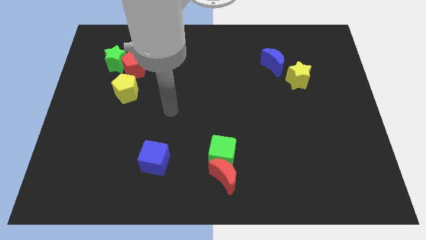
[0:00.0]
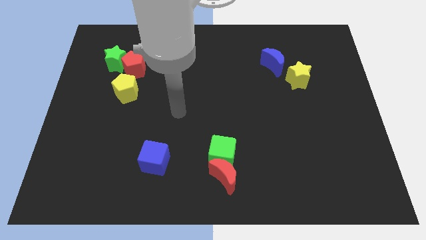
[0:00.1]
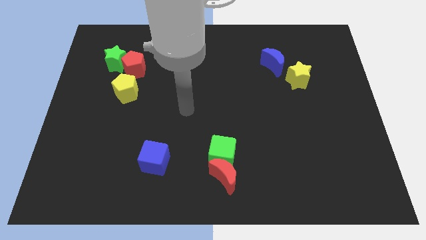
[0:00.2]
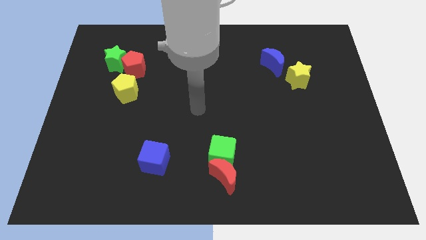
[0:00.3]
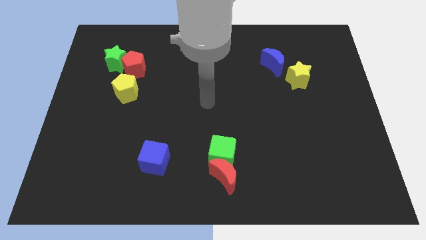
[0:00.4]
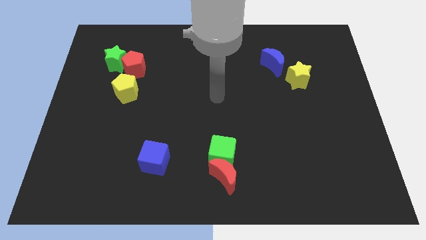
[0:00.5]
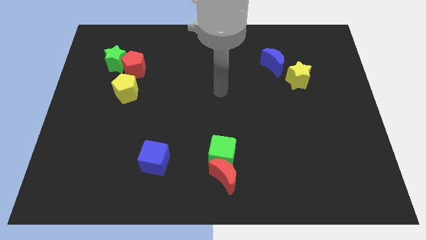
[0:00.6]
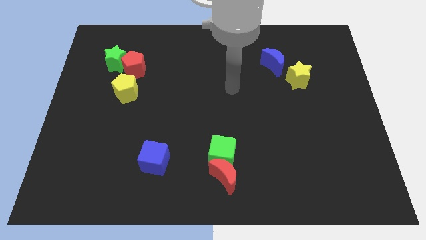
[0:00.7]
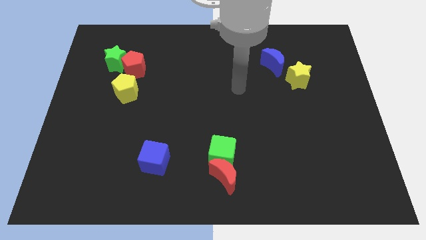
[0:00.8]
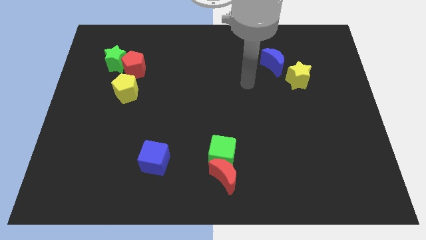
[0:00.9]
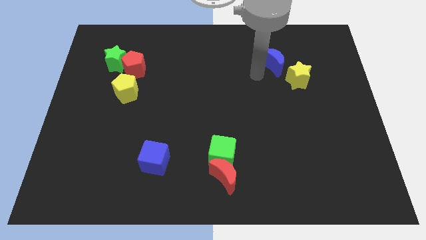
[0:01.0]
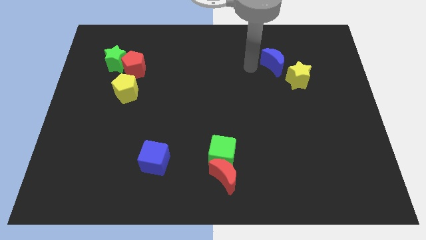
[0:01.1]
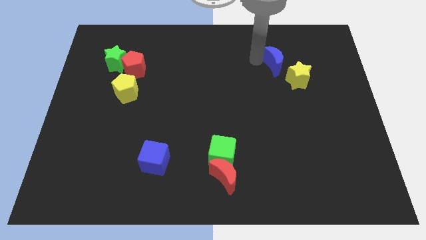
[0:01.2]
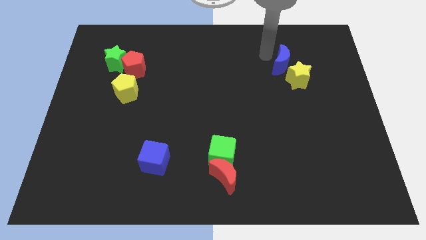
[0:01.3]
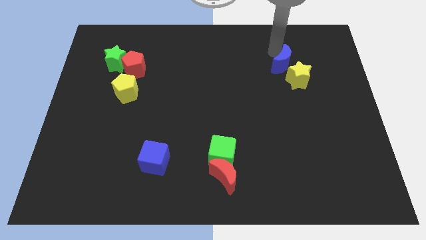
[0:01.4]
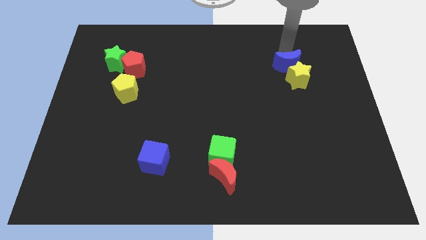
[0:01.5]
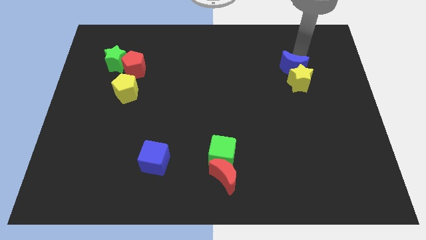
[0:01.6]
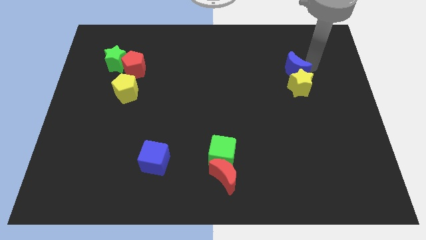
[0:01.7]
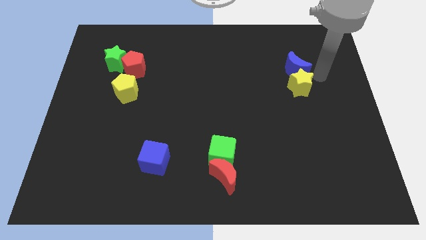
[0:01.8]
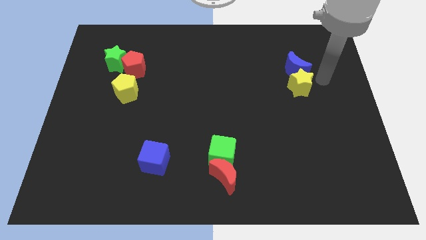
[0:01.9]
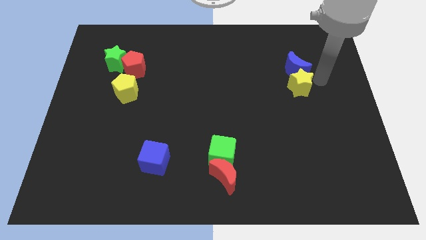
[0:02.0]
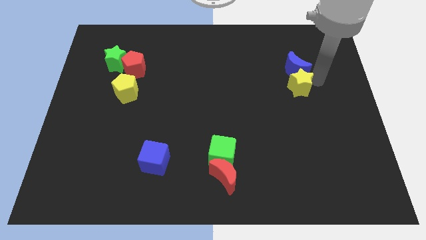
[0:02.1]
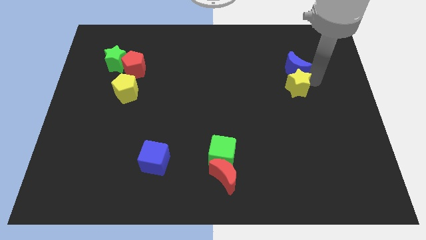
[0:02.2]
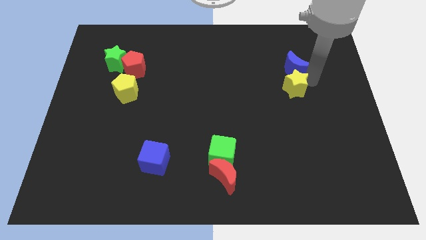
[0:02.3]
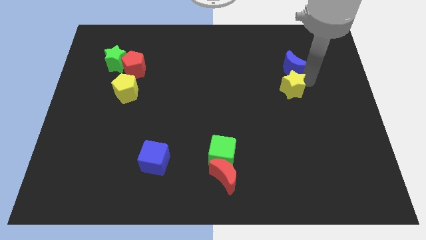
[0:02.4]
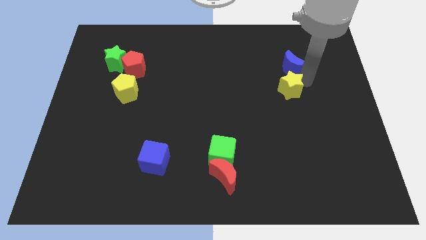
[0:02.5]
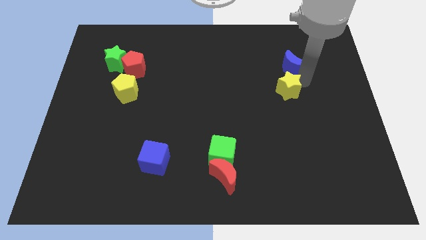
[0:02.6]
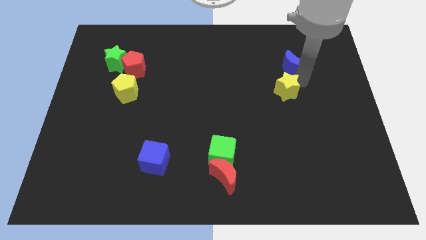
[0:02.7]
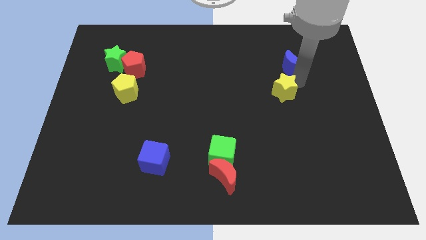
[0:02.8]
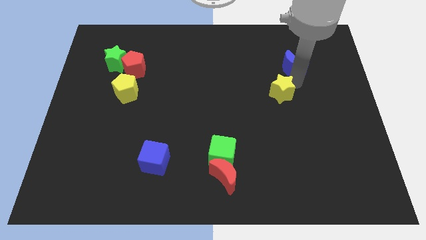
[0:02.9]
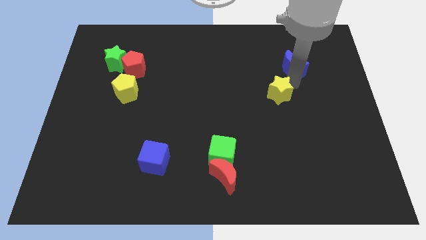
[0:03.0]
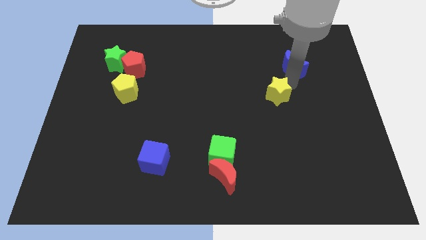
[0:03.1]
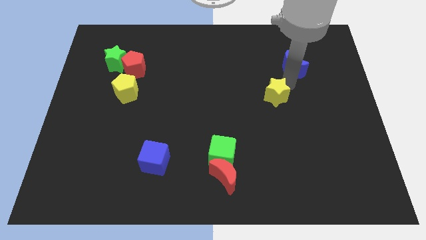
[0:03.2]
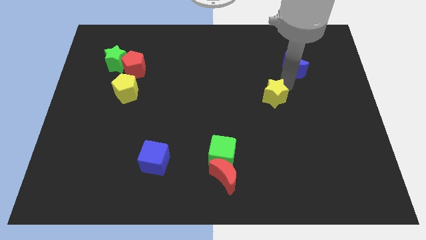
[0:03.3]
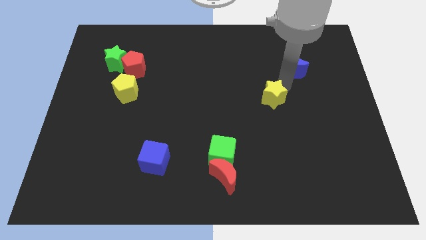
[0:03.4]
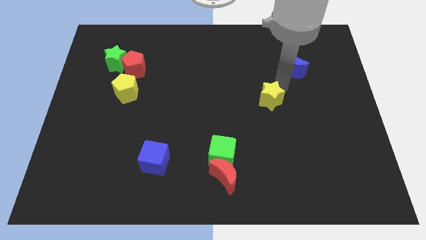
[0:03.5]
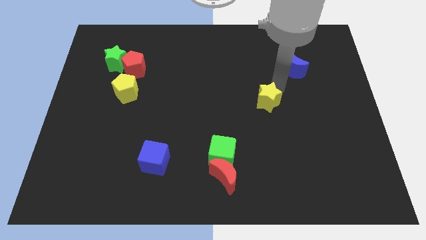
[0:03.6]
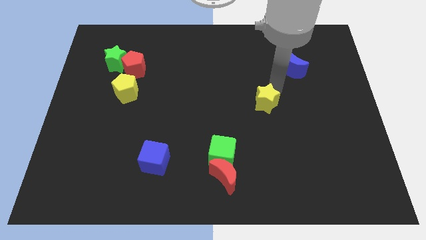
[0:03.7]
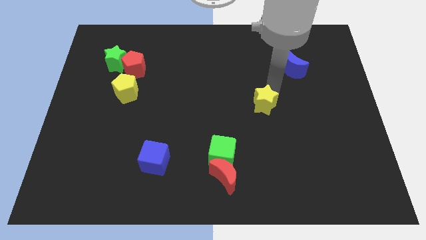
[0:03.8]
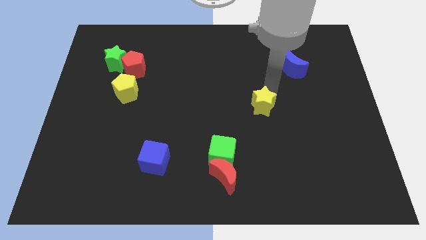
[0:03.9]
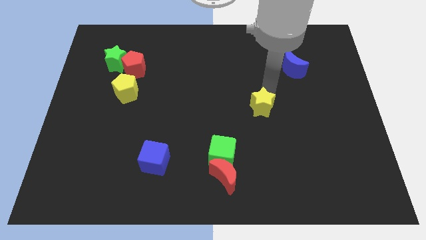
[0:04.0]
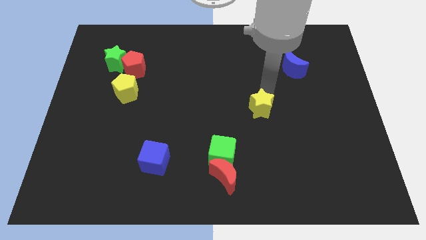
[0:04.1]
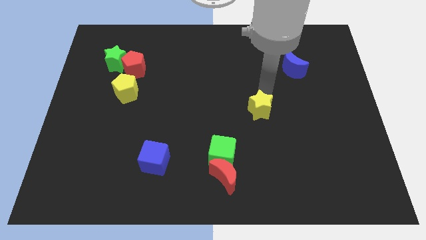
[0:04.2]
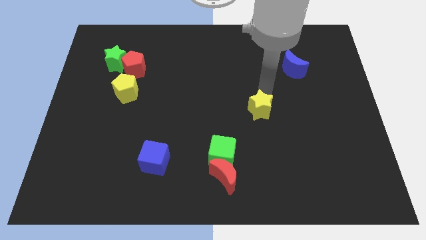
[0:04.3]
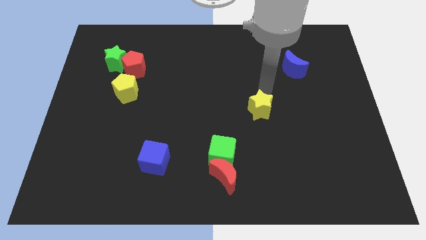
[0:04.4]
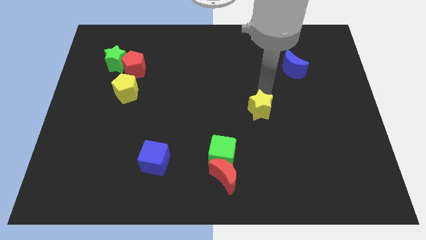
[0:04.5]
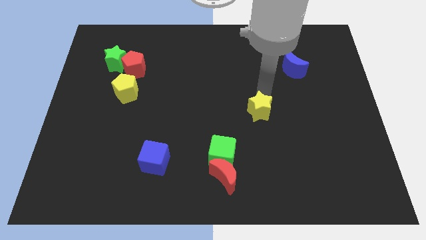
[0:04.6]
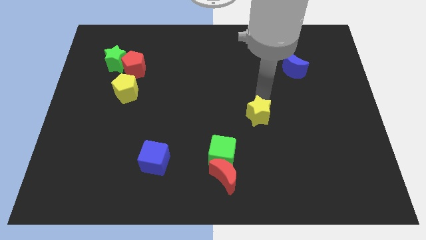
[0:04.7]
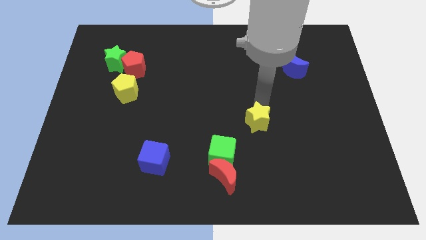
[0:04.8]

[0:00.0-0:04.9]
put the yellow star diagonally up and to the right of the green cube

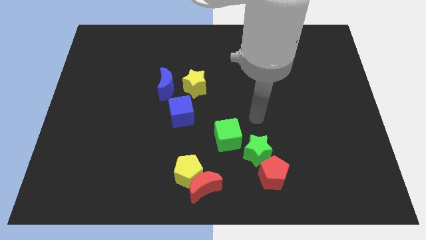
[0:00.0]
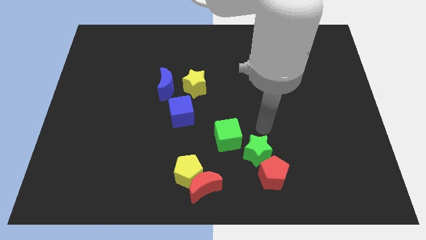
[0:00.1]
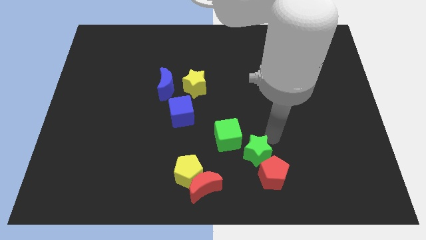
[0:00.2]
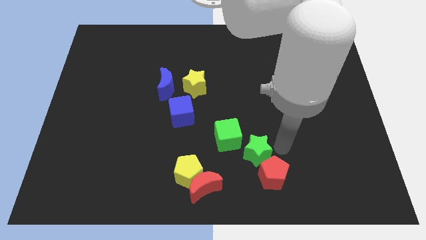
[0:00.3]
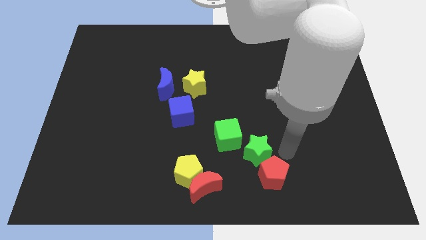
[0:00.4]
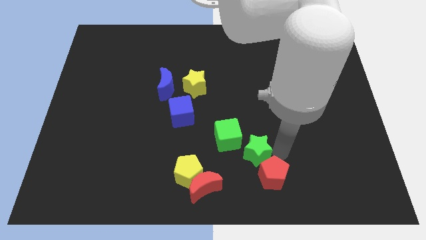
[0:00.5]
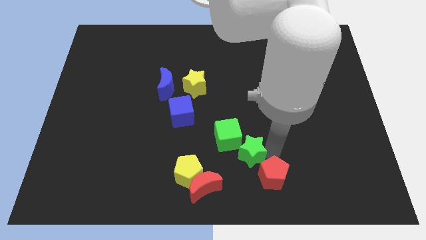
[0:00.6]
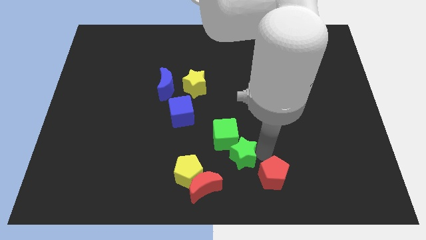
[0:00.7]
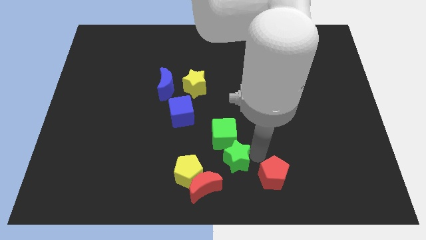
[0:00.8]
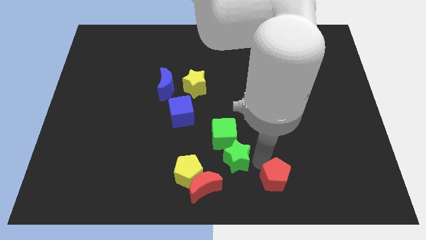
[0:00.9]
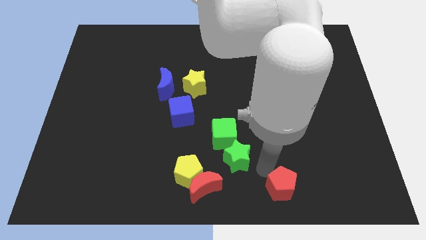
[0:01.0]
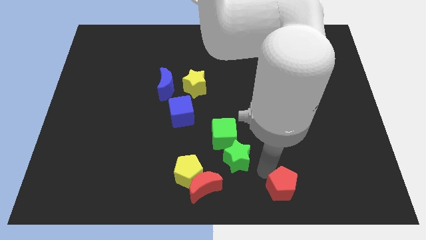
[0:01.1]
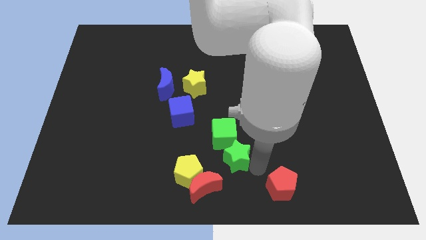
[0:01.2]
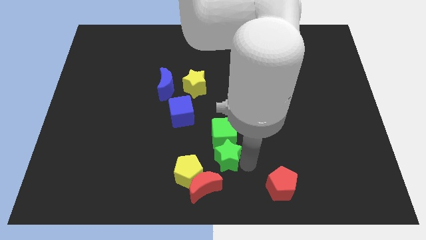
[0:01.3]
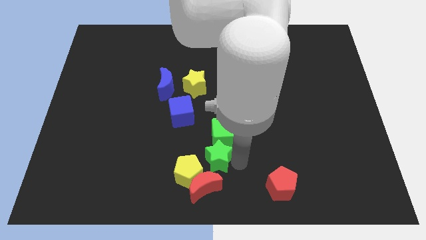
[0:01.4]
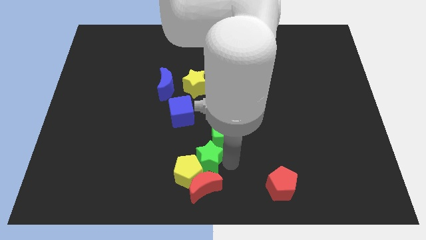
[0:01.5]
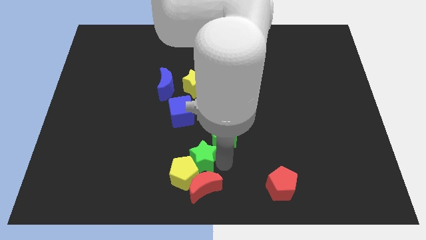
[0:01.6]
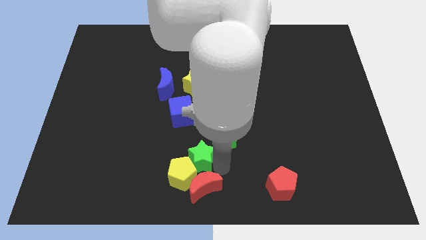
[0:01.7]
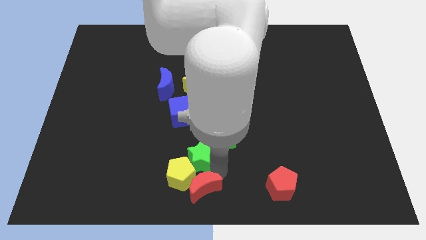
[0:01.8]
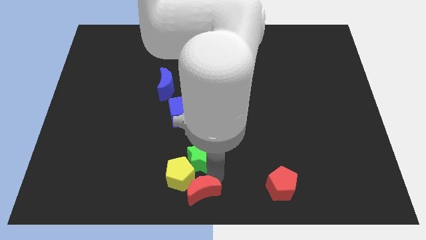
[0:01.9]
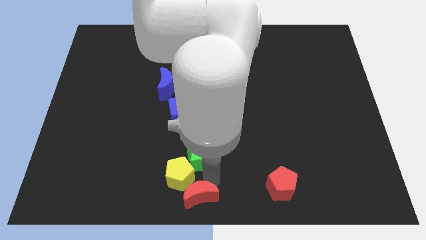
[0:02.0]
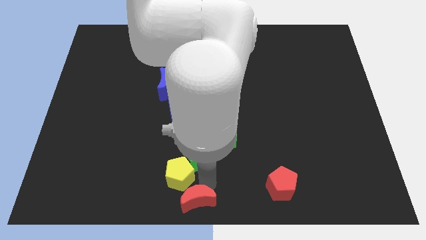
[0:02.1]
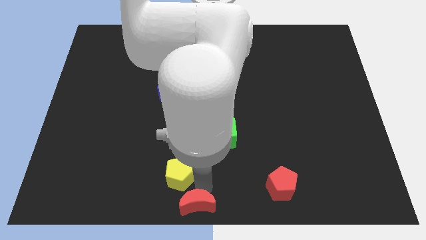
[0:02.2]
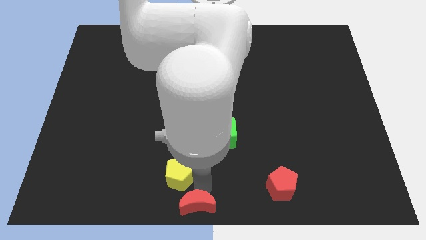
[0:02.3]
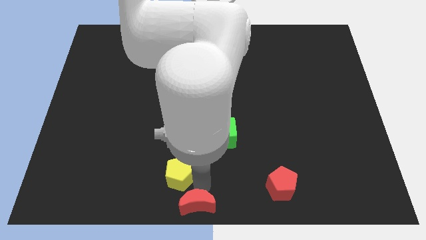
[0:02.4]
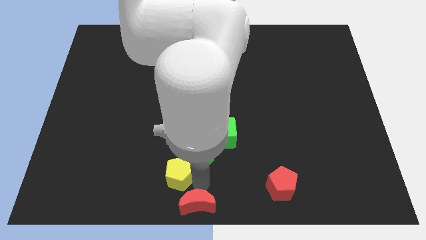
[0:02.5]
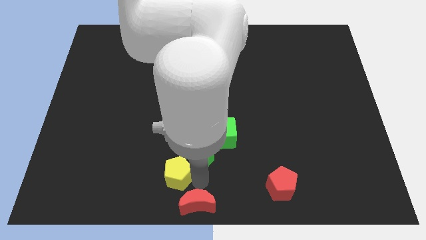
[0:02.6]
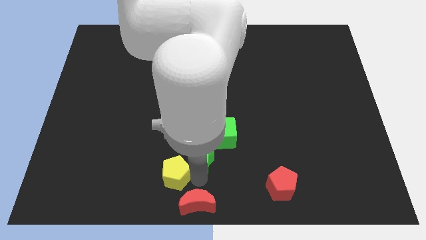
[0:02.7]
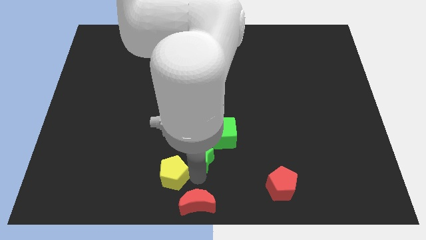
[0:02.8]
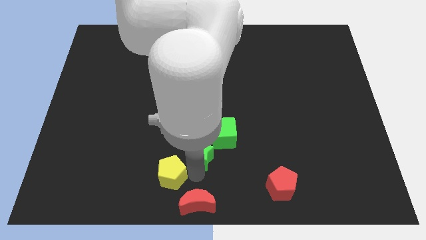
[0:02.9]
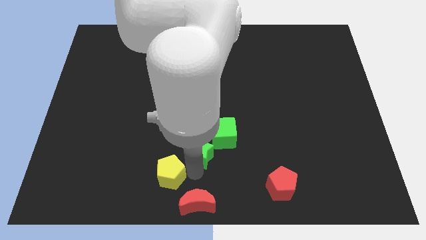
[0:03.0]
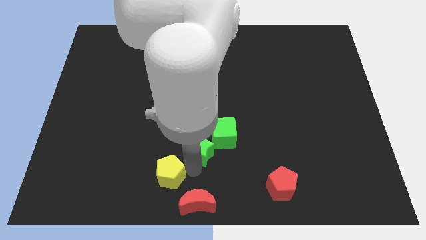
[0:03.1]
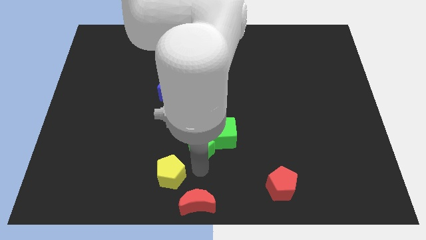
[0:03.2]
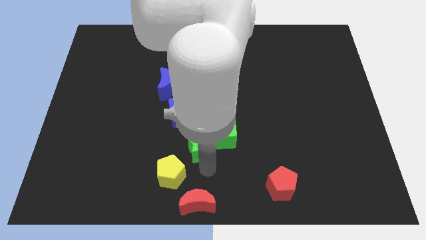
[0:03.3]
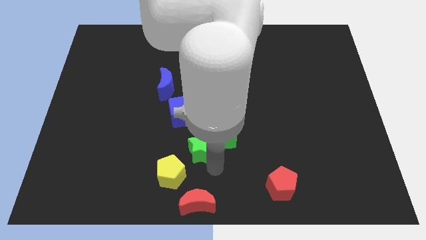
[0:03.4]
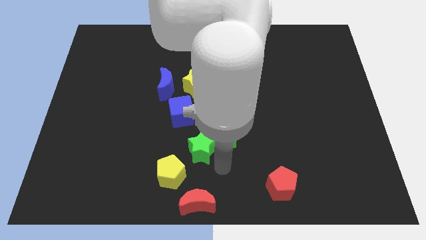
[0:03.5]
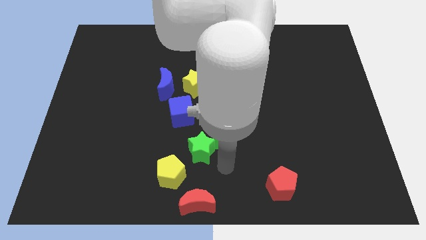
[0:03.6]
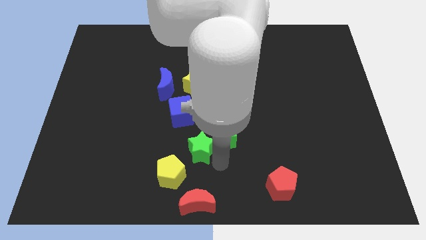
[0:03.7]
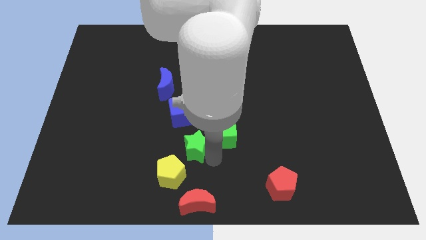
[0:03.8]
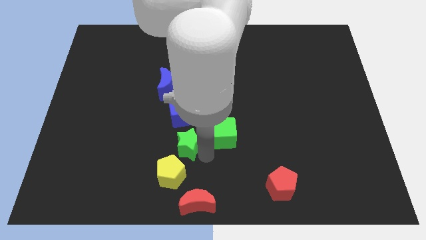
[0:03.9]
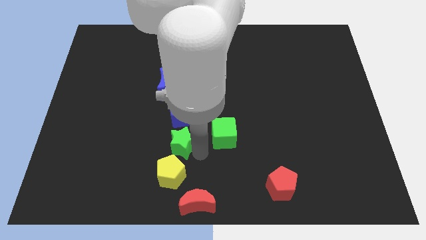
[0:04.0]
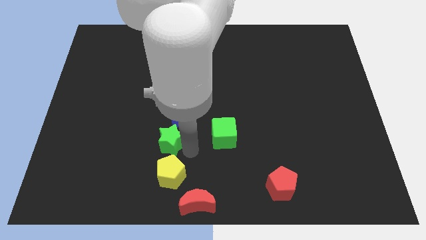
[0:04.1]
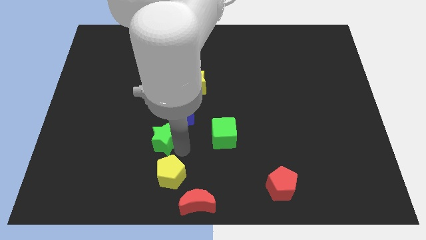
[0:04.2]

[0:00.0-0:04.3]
put the green star to the bottom side of the blue moon
